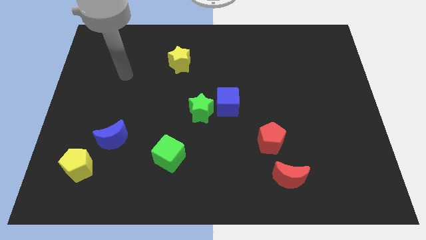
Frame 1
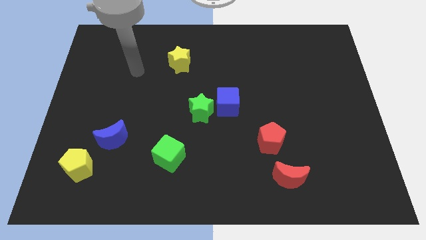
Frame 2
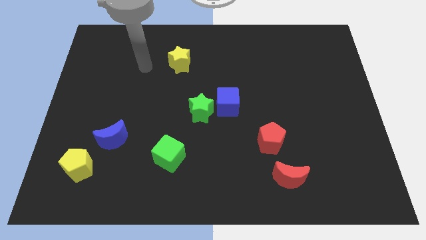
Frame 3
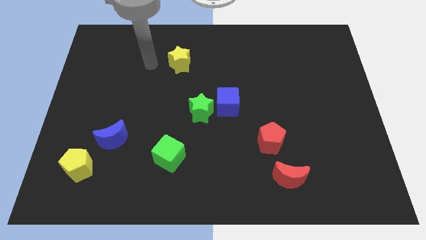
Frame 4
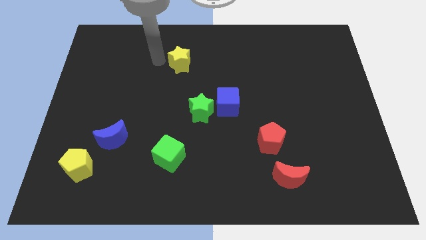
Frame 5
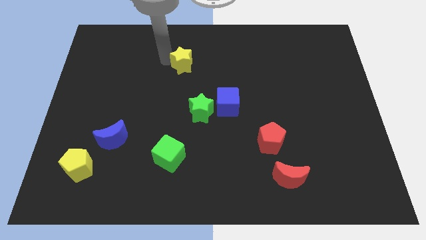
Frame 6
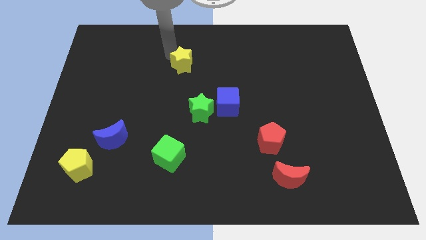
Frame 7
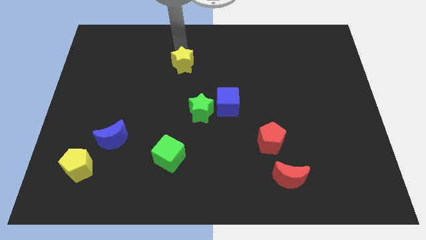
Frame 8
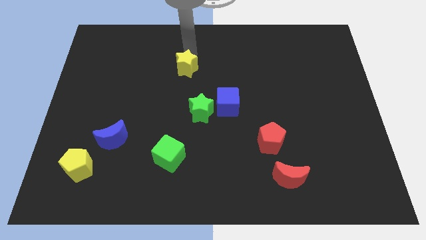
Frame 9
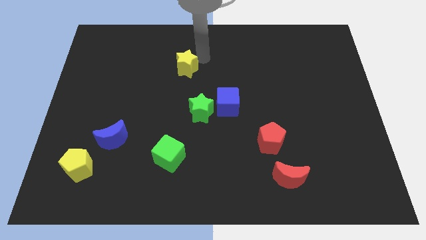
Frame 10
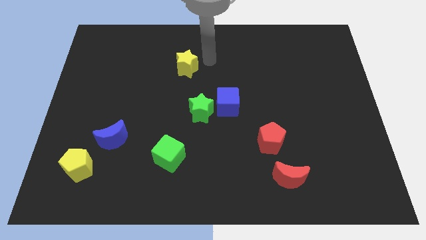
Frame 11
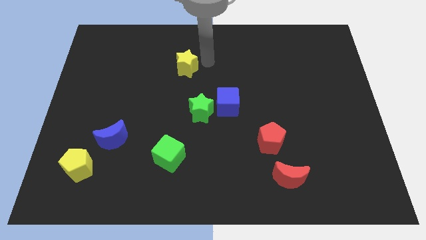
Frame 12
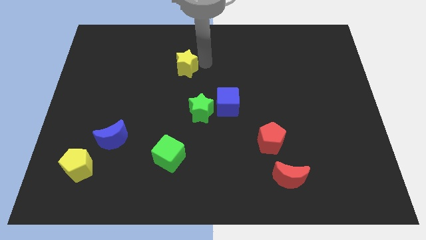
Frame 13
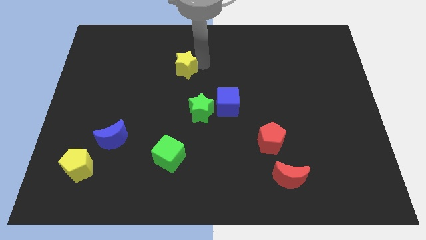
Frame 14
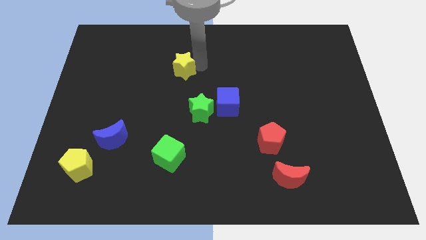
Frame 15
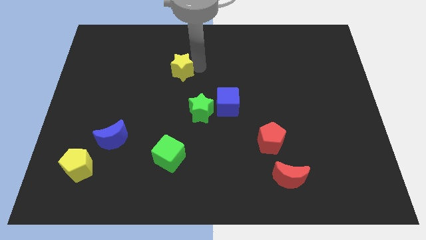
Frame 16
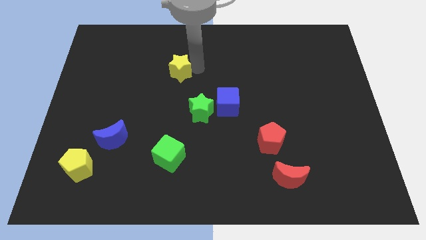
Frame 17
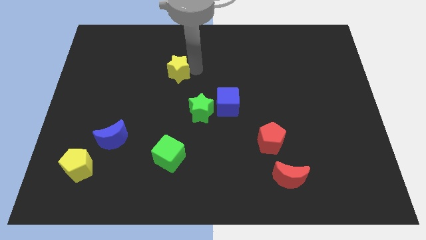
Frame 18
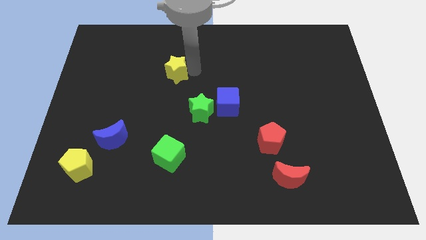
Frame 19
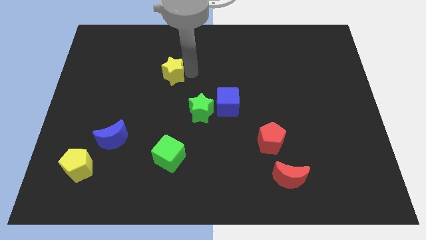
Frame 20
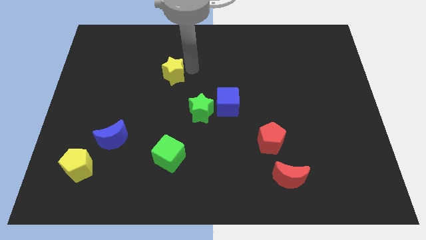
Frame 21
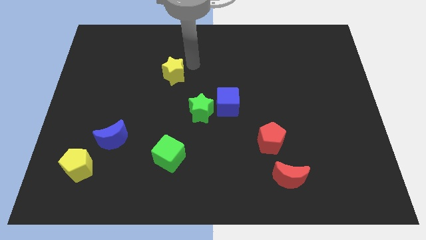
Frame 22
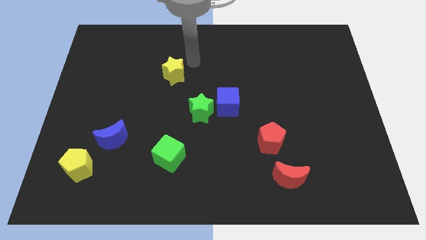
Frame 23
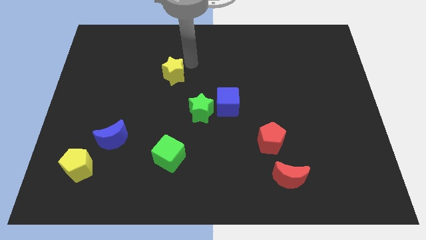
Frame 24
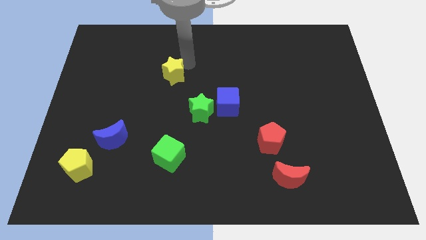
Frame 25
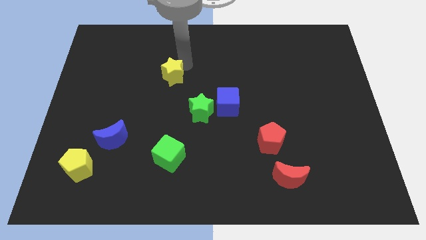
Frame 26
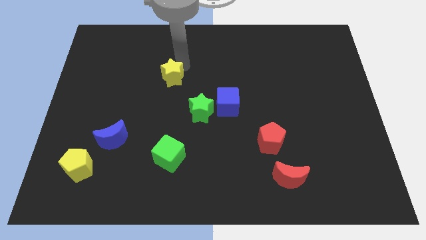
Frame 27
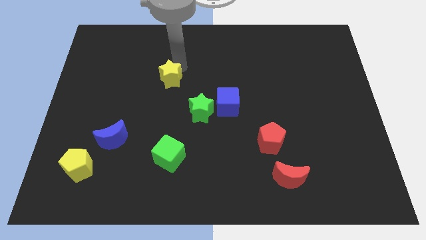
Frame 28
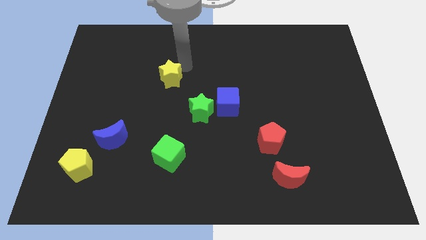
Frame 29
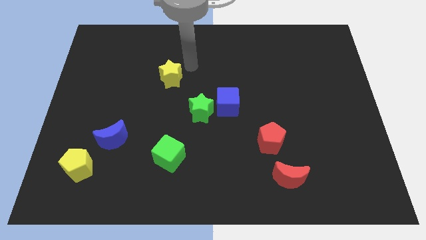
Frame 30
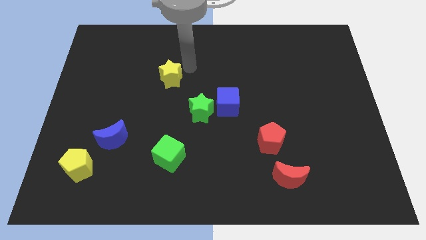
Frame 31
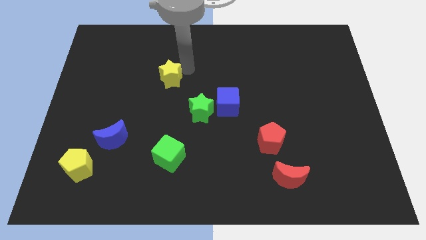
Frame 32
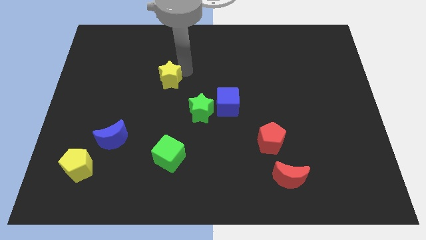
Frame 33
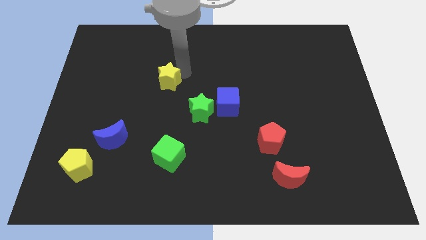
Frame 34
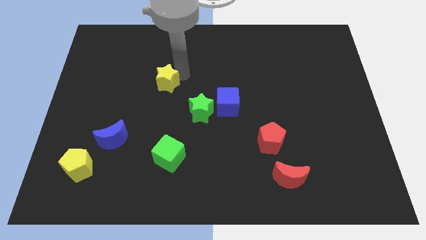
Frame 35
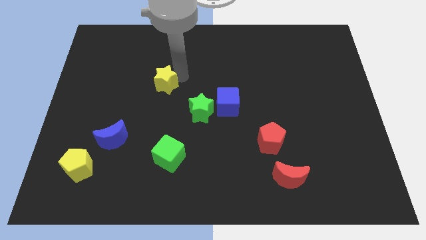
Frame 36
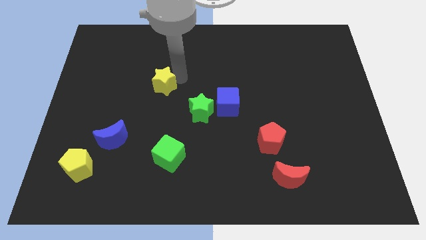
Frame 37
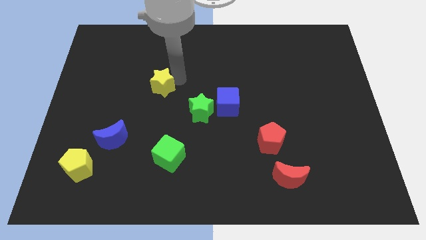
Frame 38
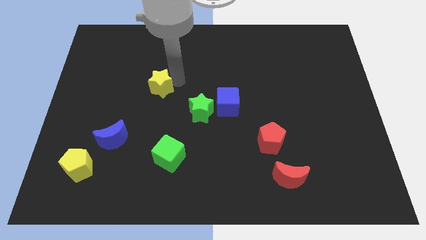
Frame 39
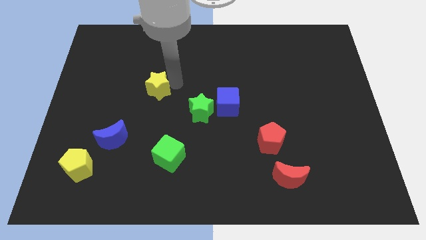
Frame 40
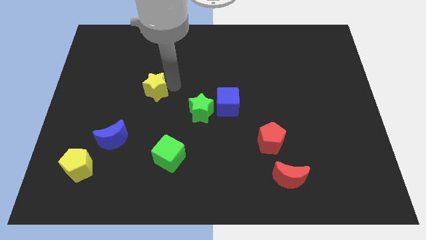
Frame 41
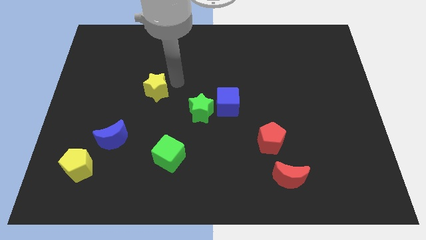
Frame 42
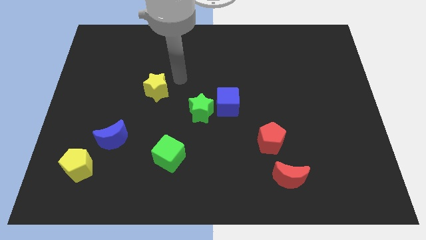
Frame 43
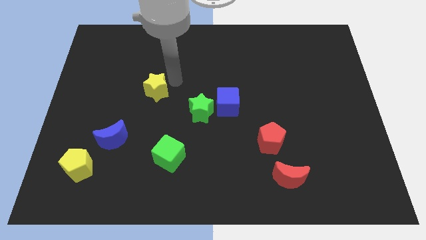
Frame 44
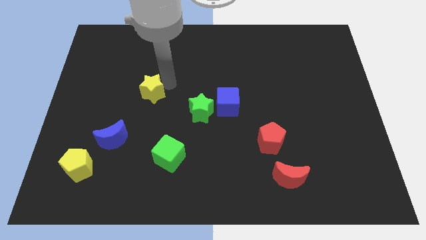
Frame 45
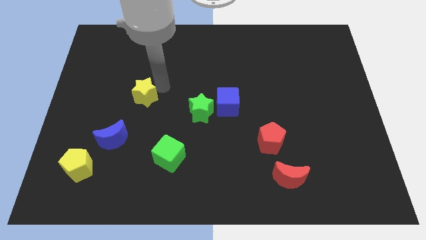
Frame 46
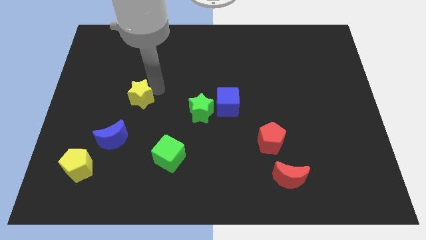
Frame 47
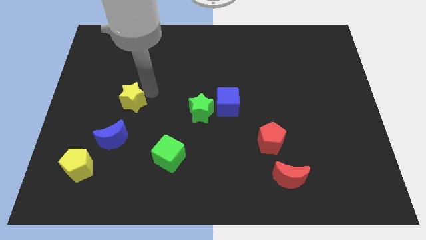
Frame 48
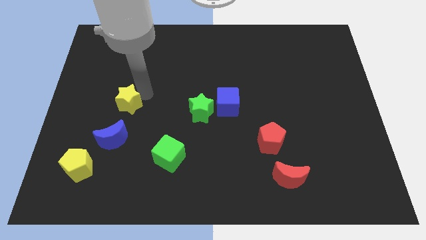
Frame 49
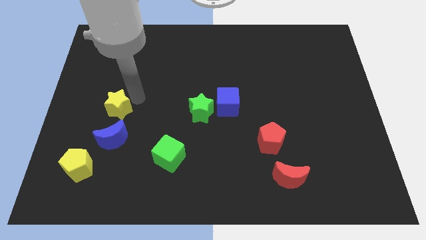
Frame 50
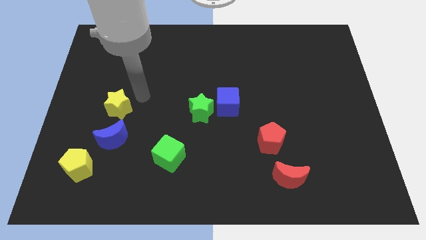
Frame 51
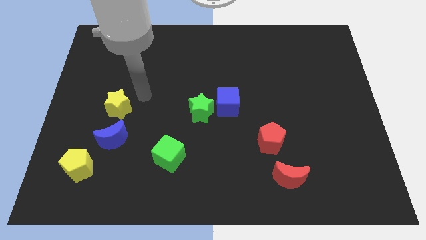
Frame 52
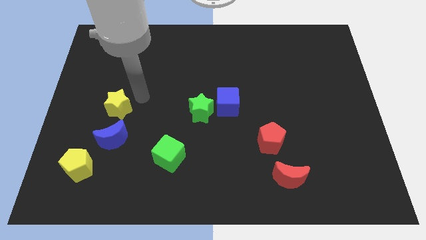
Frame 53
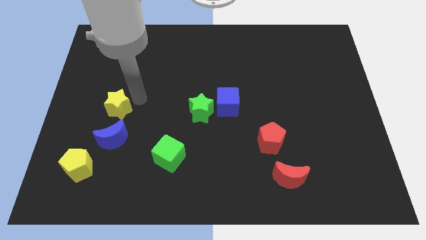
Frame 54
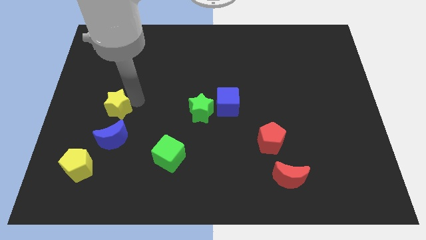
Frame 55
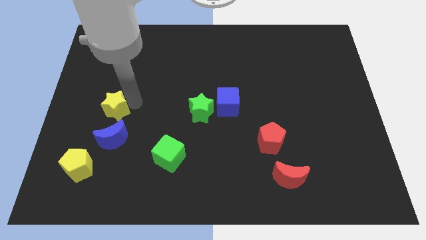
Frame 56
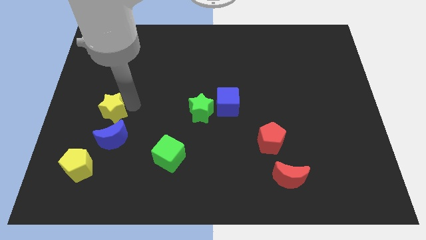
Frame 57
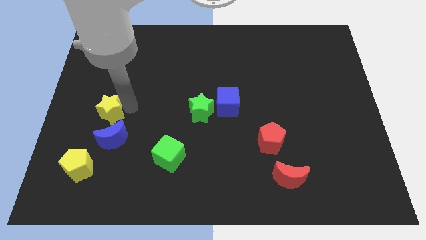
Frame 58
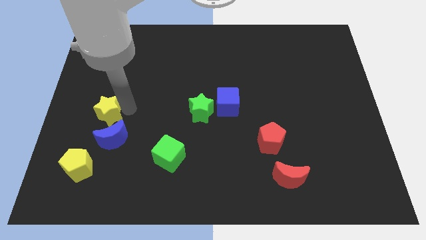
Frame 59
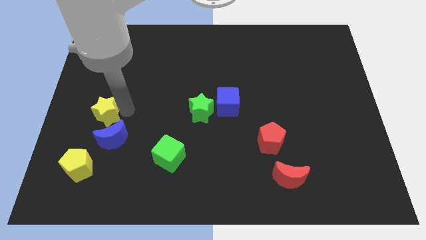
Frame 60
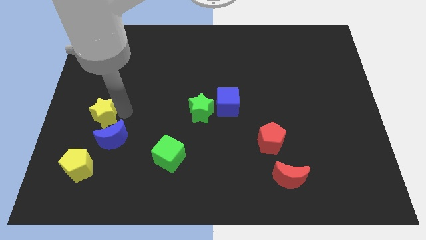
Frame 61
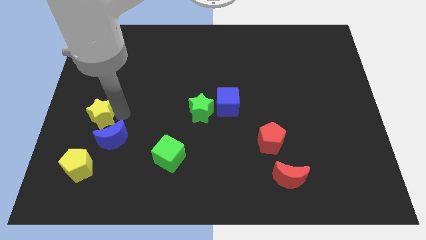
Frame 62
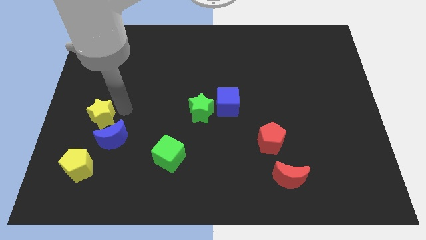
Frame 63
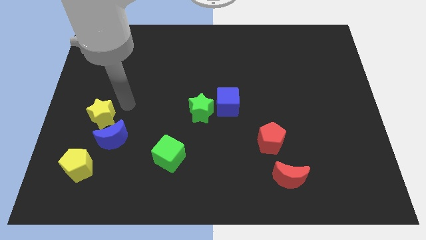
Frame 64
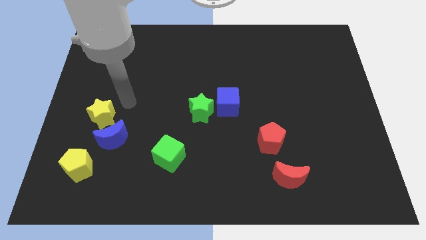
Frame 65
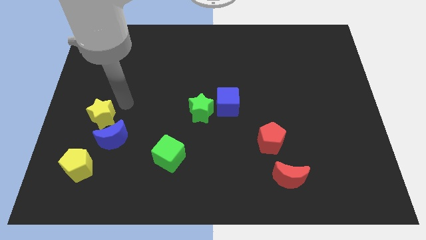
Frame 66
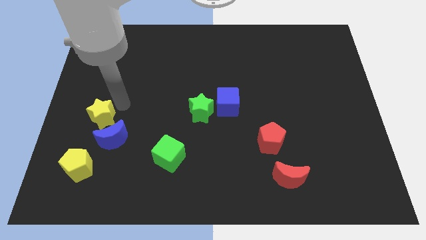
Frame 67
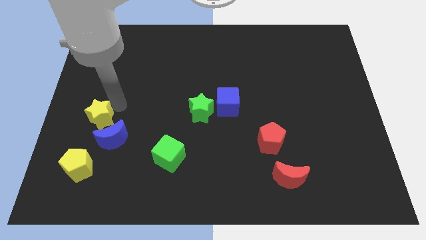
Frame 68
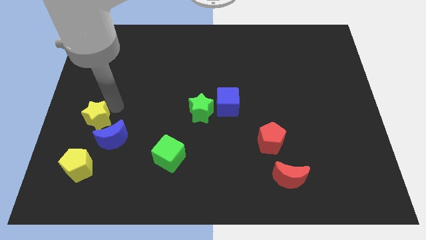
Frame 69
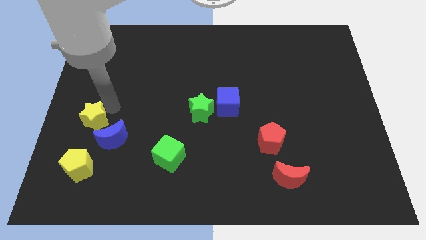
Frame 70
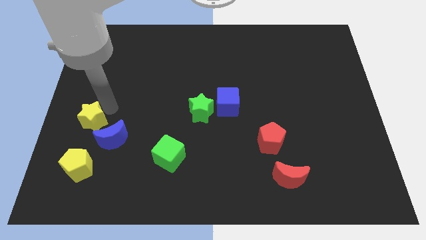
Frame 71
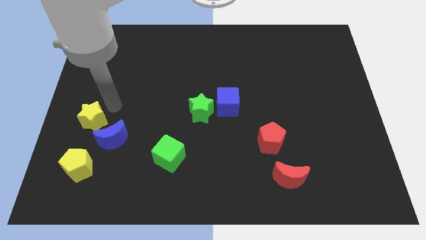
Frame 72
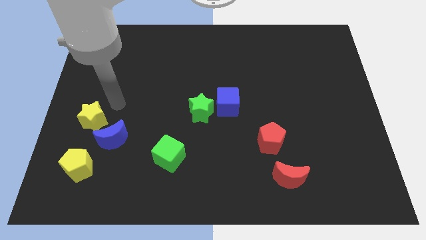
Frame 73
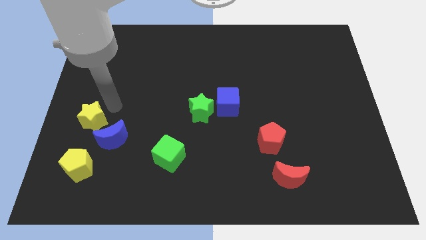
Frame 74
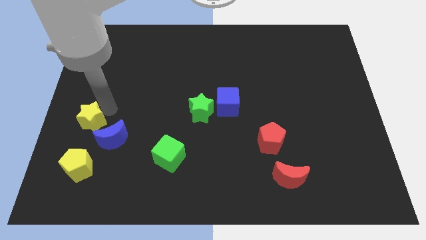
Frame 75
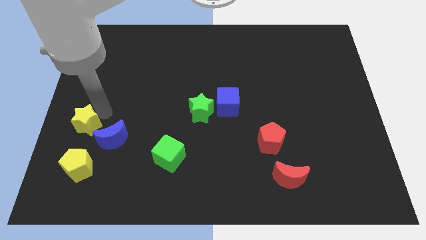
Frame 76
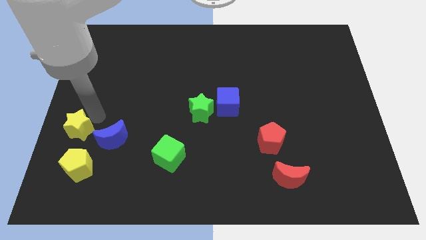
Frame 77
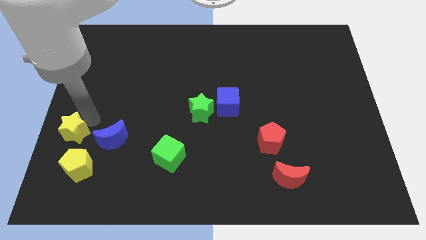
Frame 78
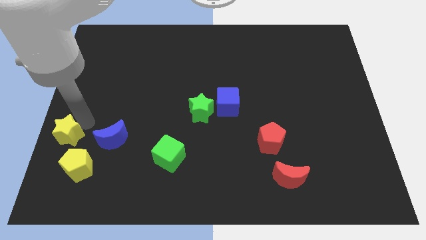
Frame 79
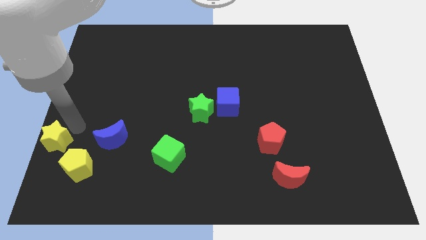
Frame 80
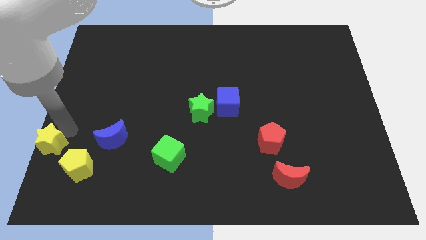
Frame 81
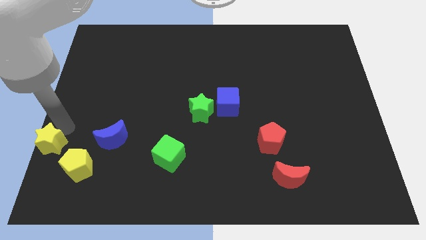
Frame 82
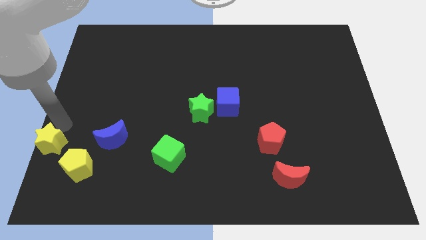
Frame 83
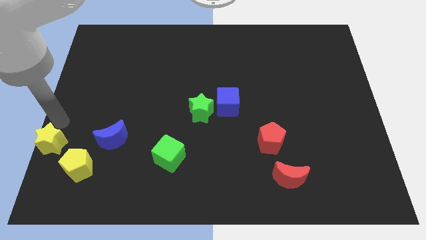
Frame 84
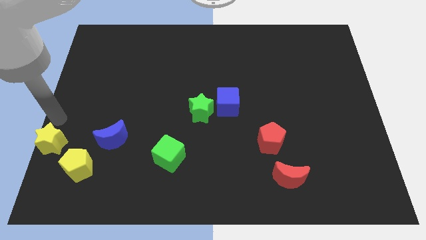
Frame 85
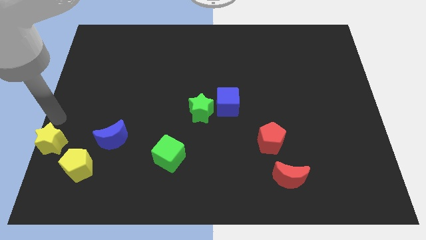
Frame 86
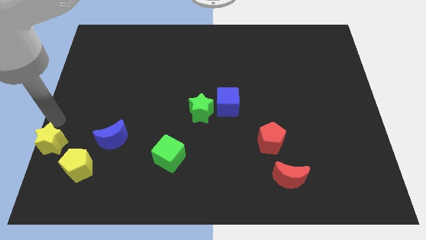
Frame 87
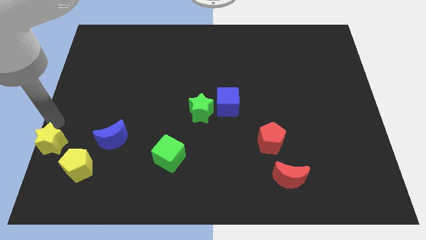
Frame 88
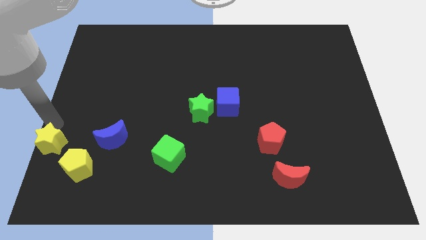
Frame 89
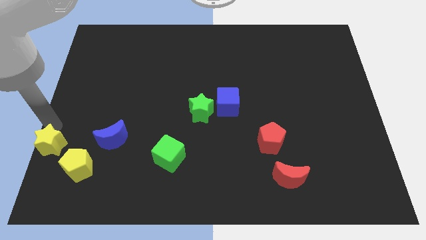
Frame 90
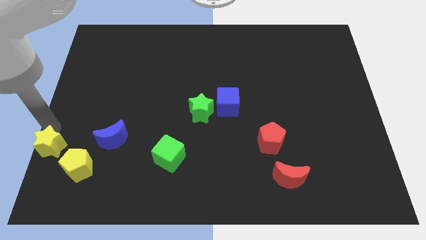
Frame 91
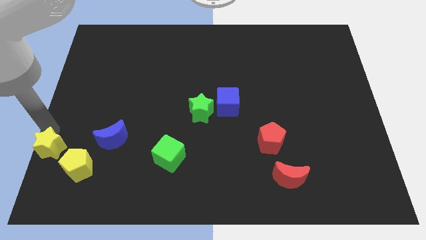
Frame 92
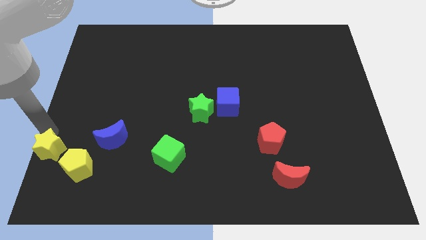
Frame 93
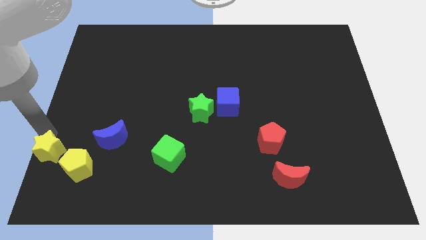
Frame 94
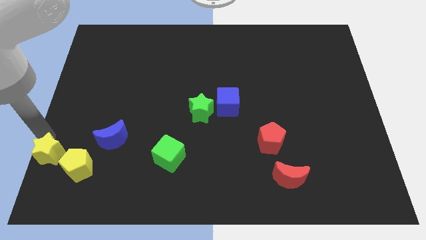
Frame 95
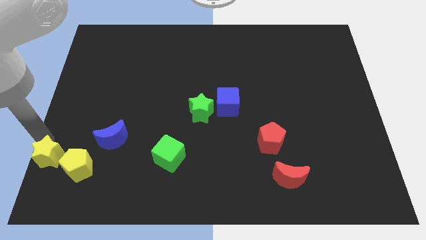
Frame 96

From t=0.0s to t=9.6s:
put the yellow star to the bottom left
